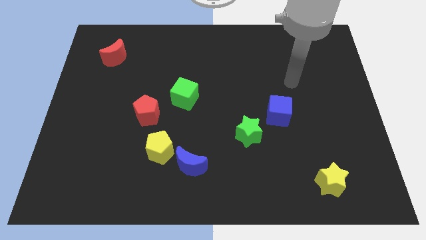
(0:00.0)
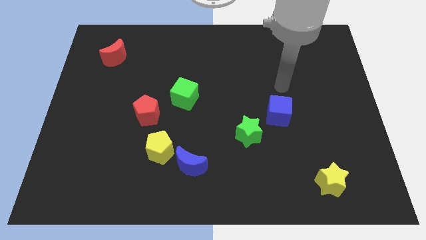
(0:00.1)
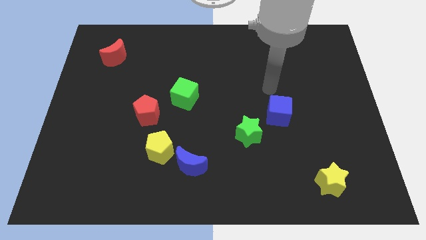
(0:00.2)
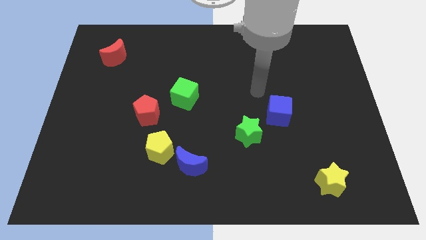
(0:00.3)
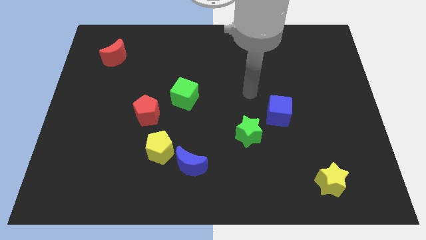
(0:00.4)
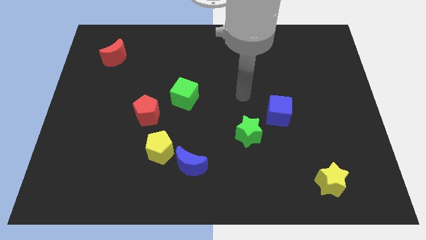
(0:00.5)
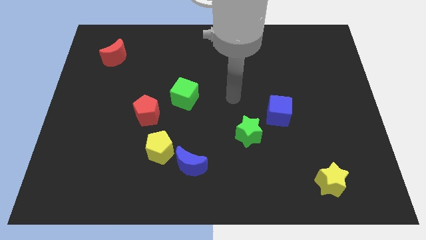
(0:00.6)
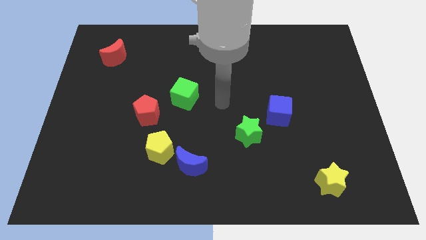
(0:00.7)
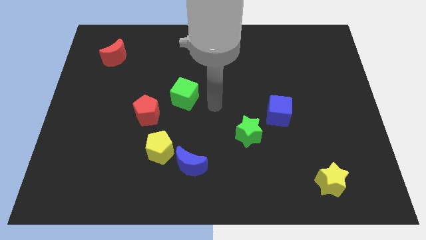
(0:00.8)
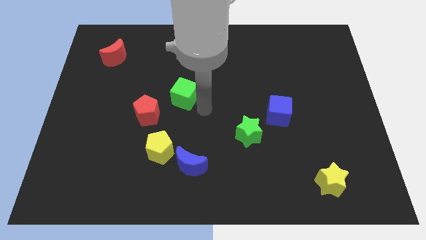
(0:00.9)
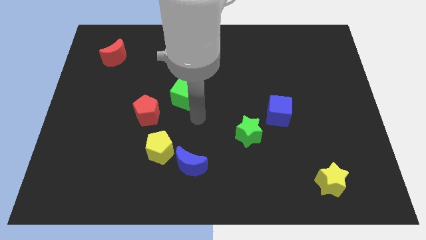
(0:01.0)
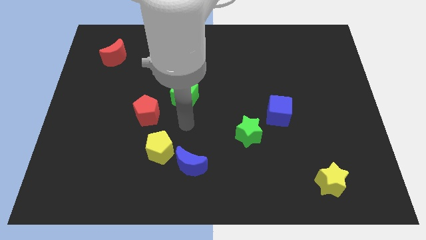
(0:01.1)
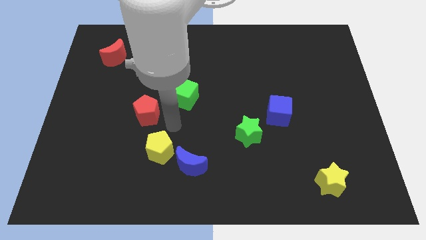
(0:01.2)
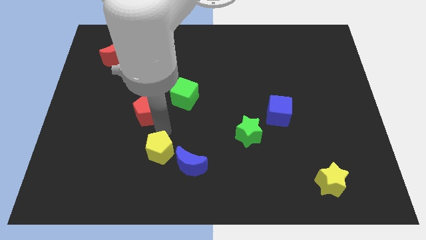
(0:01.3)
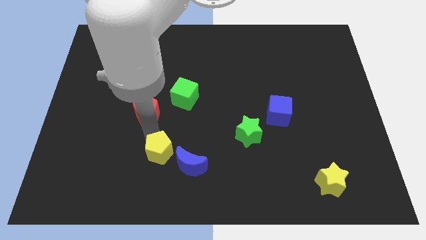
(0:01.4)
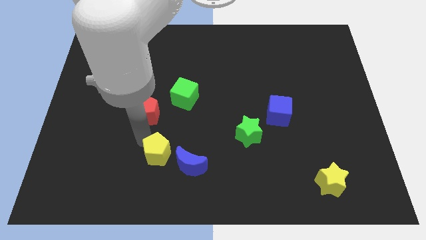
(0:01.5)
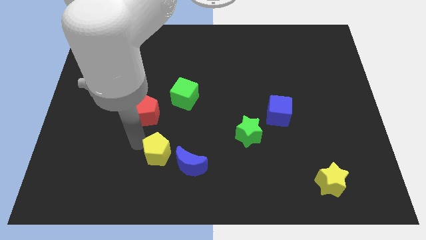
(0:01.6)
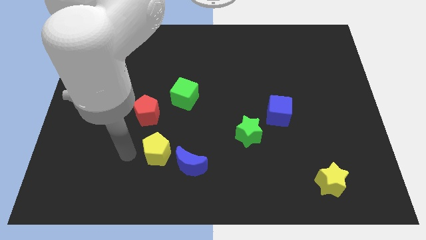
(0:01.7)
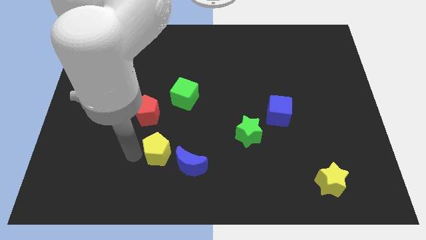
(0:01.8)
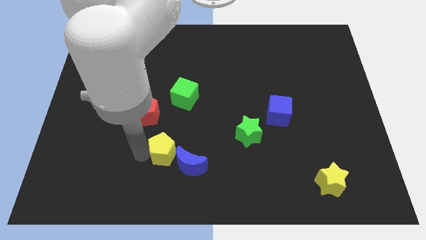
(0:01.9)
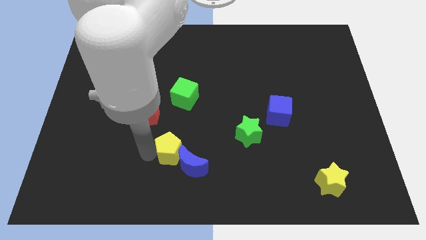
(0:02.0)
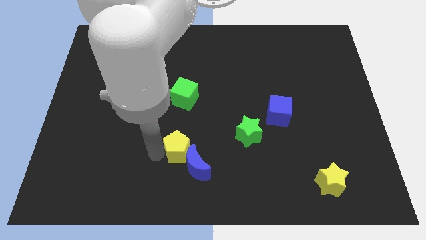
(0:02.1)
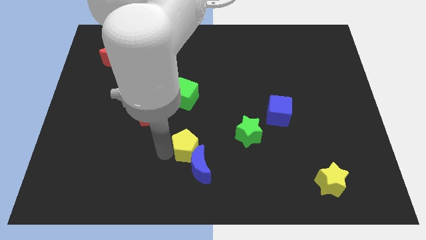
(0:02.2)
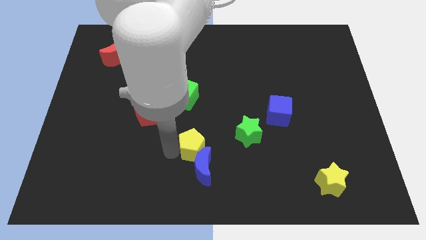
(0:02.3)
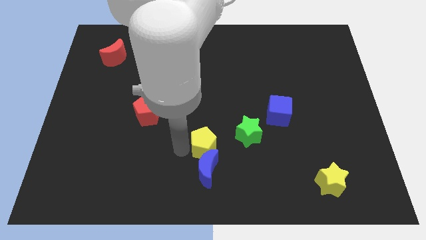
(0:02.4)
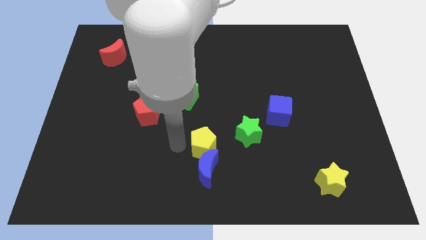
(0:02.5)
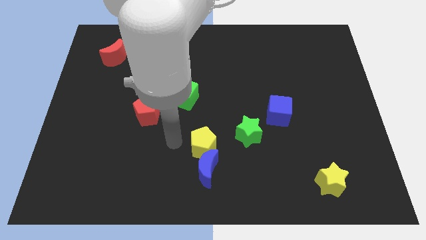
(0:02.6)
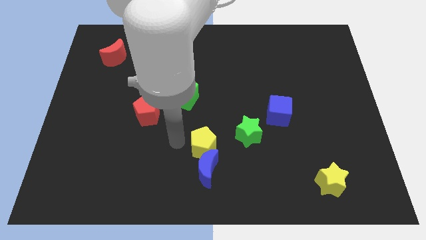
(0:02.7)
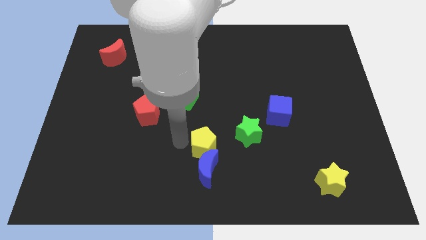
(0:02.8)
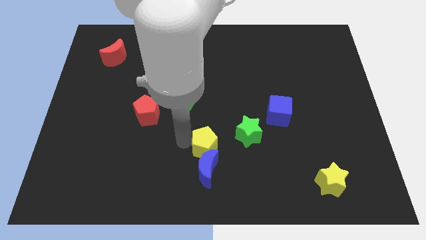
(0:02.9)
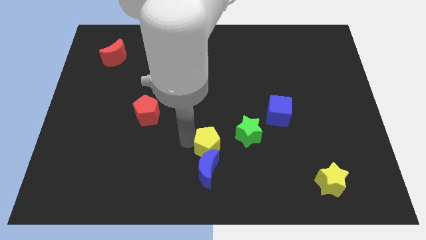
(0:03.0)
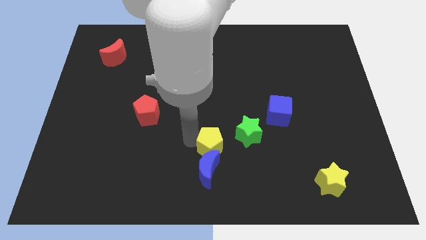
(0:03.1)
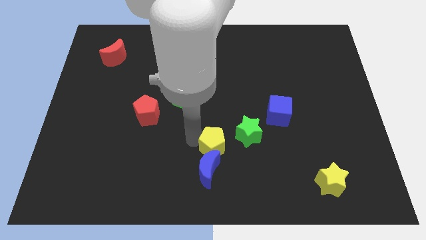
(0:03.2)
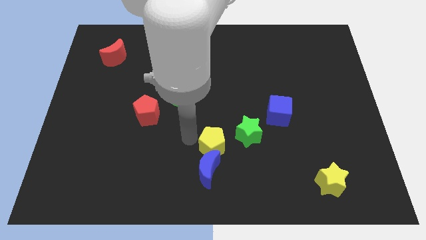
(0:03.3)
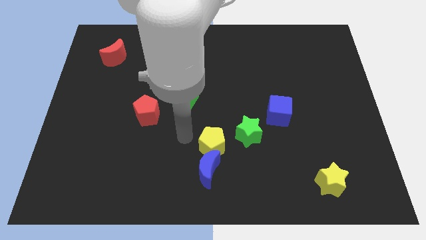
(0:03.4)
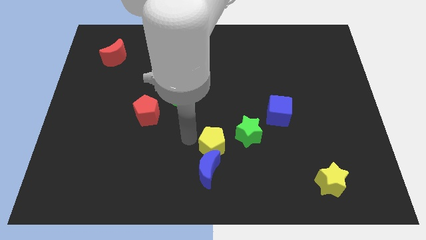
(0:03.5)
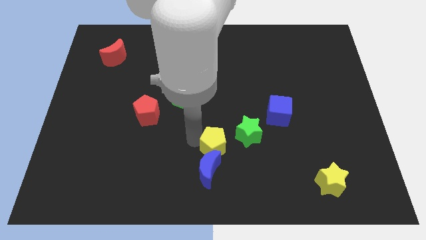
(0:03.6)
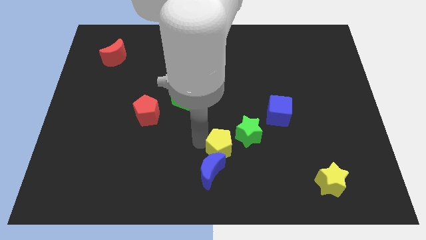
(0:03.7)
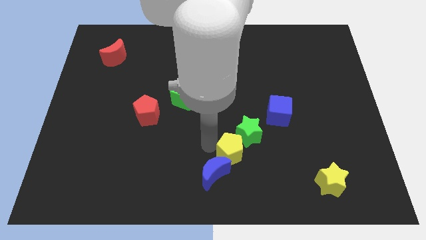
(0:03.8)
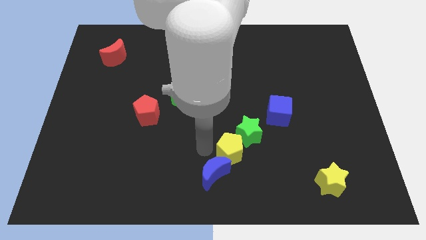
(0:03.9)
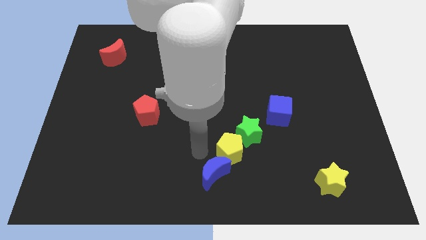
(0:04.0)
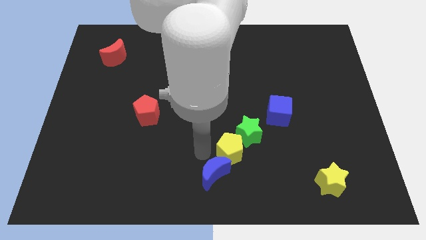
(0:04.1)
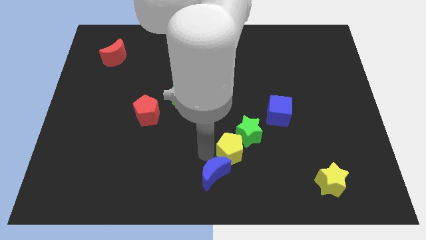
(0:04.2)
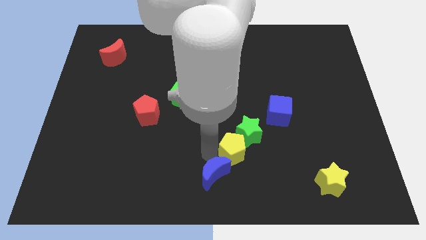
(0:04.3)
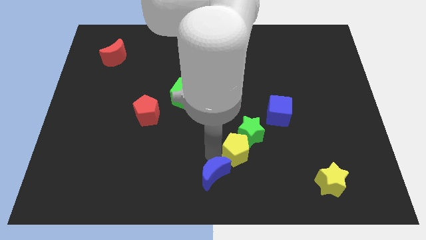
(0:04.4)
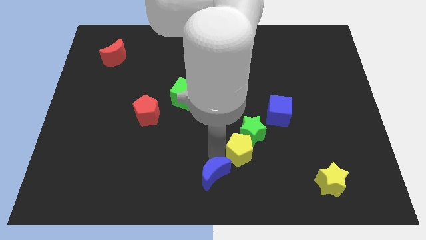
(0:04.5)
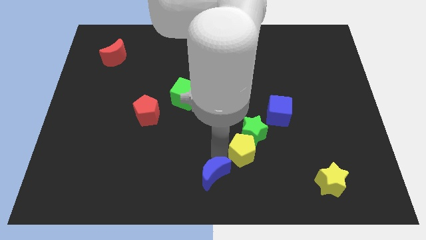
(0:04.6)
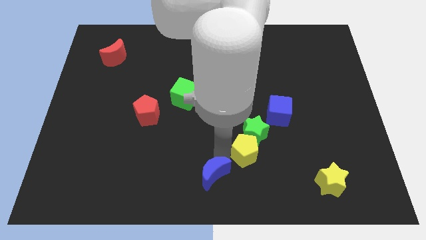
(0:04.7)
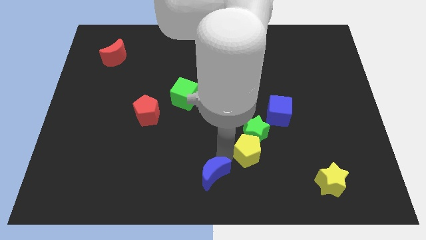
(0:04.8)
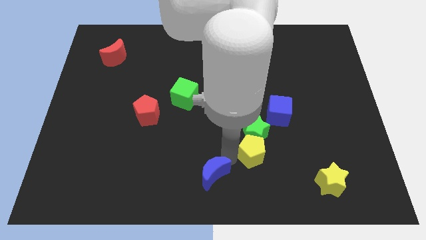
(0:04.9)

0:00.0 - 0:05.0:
move the yellow pentagon to the right

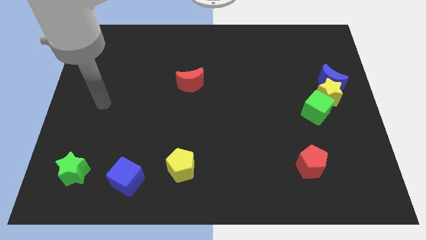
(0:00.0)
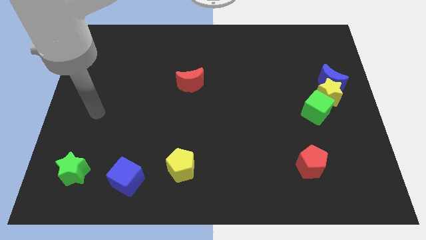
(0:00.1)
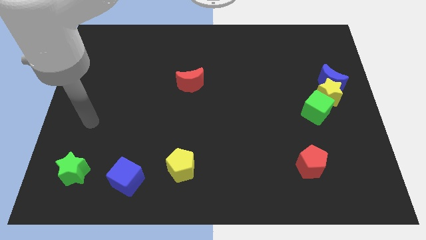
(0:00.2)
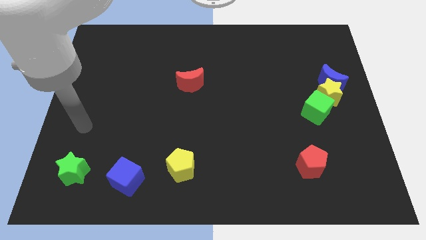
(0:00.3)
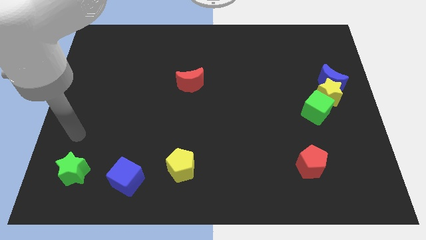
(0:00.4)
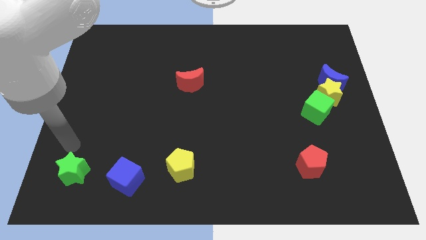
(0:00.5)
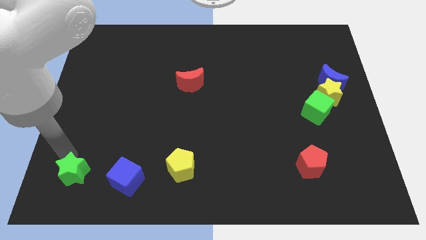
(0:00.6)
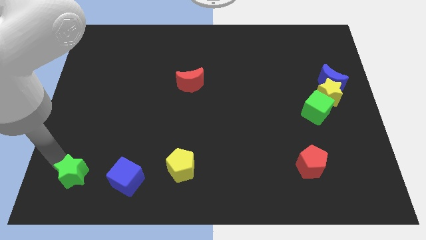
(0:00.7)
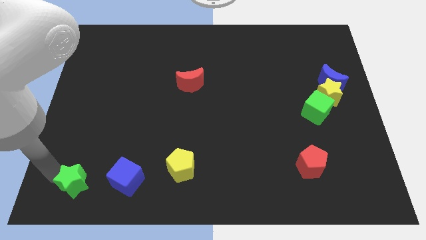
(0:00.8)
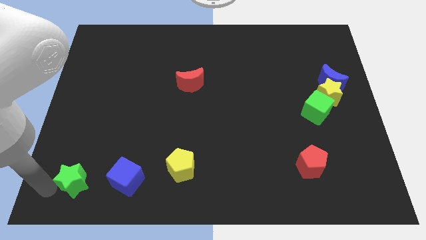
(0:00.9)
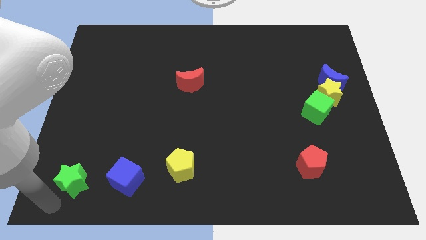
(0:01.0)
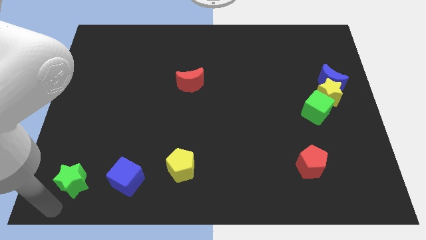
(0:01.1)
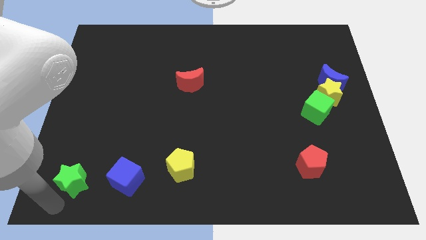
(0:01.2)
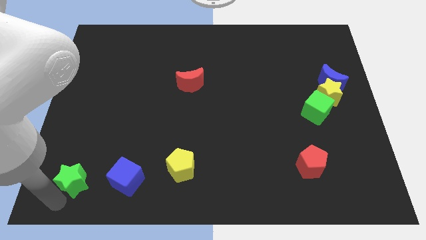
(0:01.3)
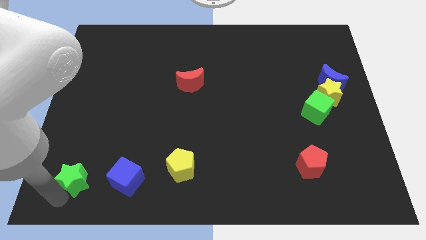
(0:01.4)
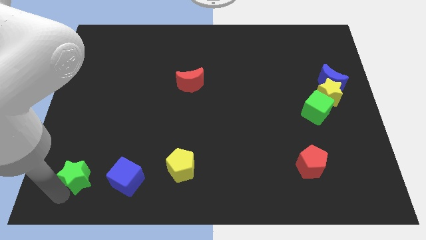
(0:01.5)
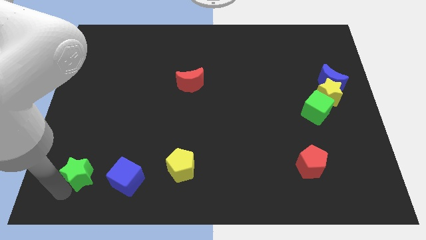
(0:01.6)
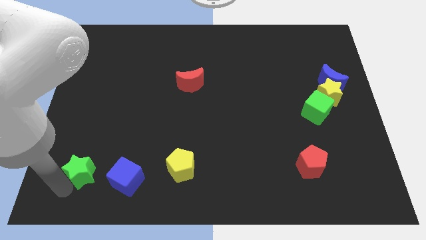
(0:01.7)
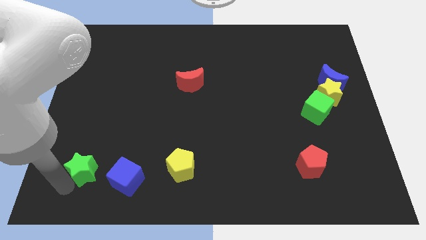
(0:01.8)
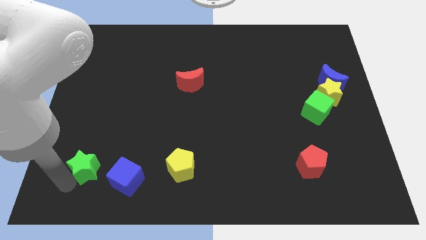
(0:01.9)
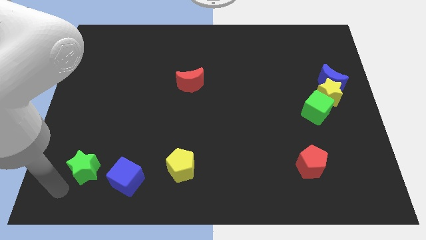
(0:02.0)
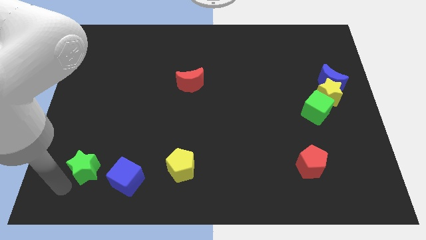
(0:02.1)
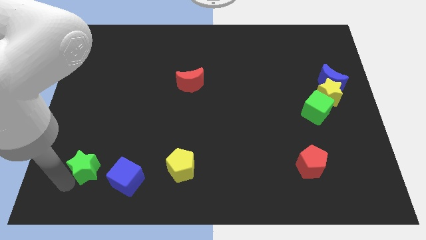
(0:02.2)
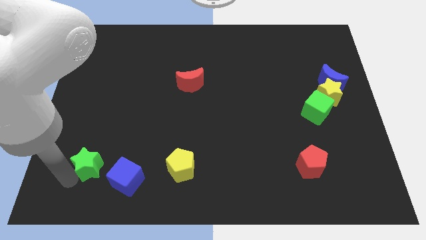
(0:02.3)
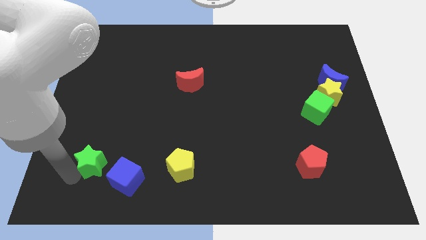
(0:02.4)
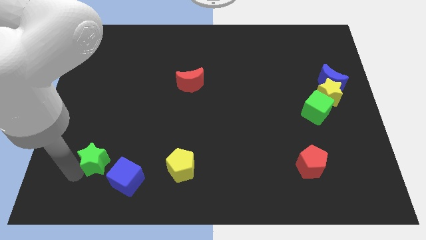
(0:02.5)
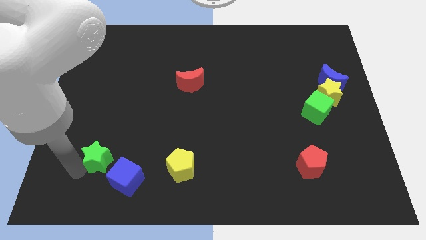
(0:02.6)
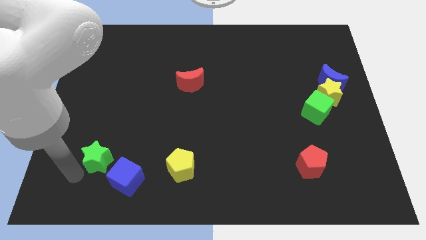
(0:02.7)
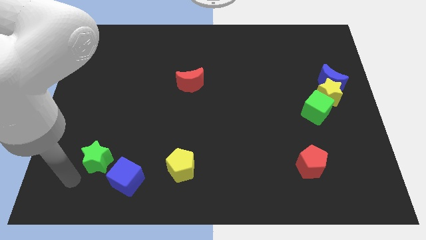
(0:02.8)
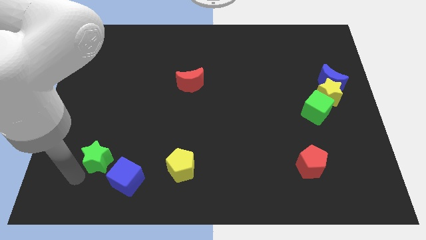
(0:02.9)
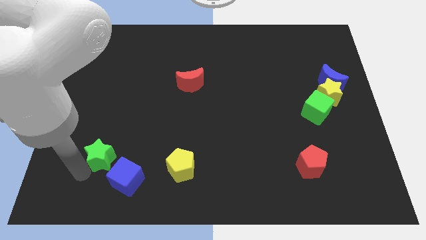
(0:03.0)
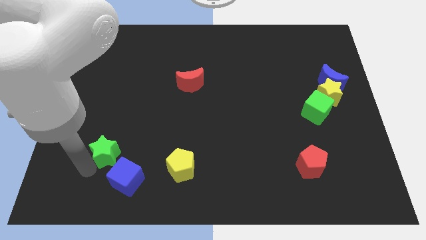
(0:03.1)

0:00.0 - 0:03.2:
slightly move the green star up and to the right
